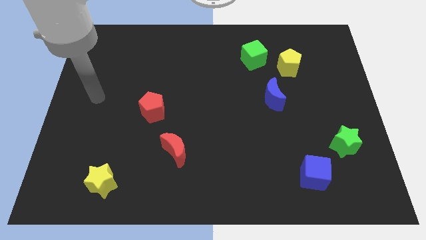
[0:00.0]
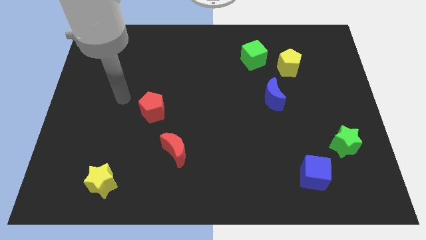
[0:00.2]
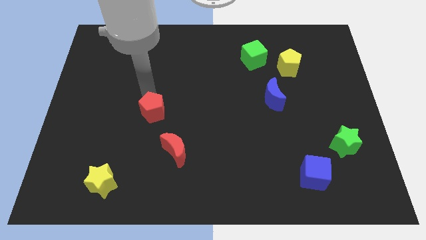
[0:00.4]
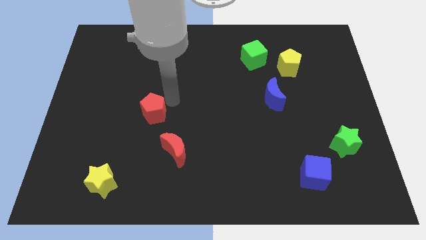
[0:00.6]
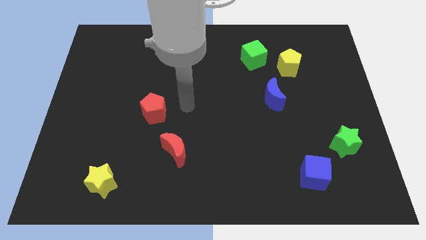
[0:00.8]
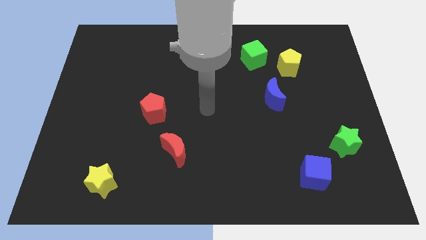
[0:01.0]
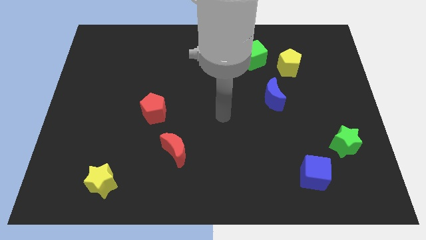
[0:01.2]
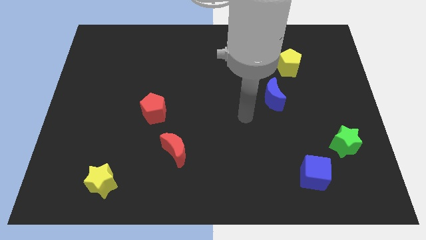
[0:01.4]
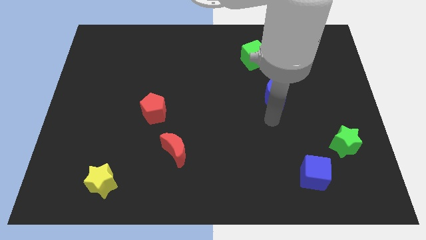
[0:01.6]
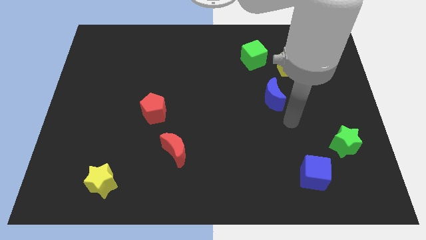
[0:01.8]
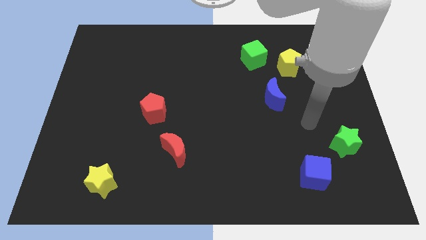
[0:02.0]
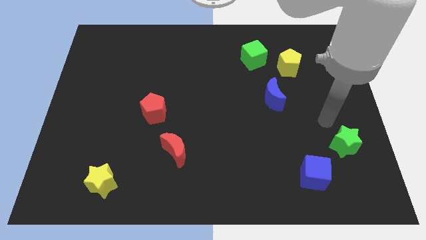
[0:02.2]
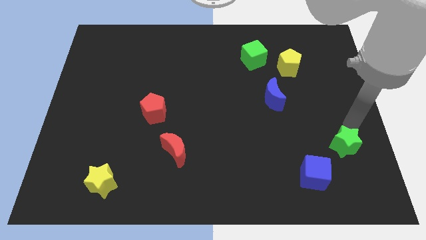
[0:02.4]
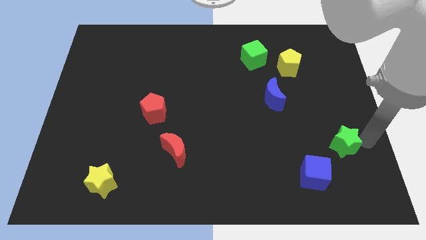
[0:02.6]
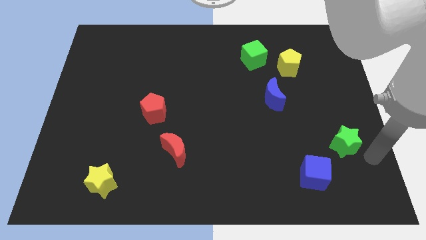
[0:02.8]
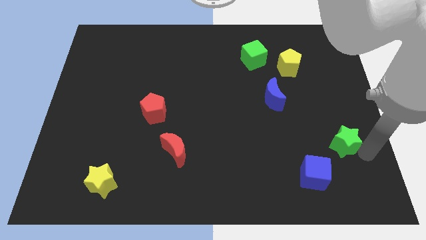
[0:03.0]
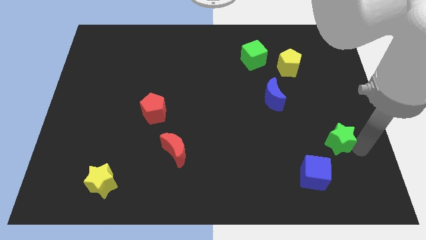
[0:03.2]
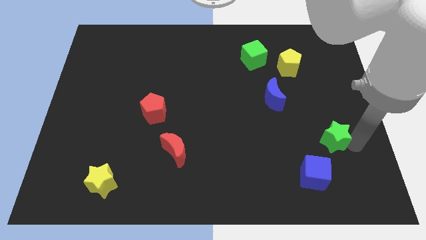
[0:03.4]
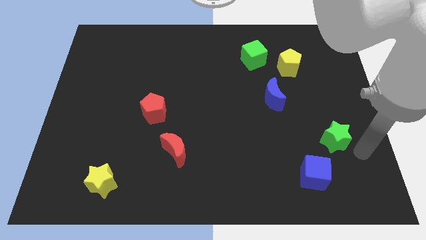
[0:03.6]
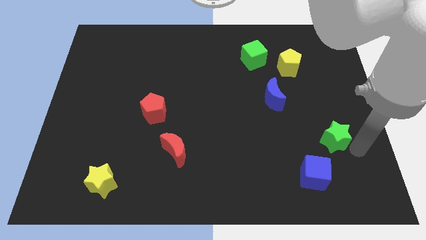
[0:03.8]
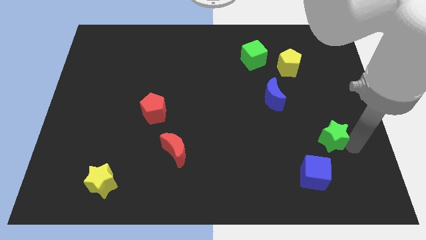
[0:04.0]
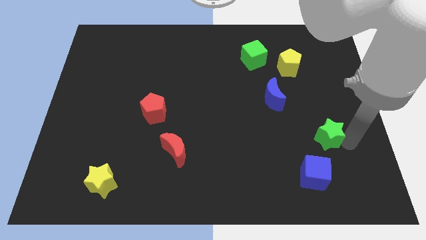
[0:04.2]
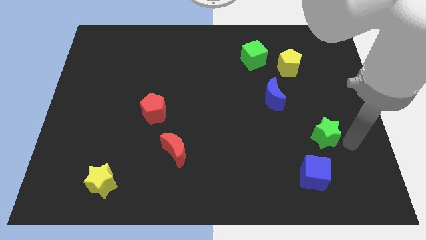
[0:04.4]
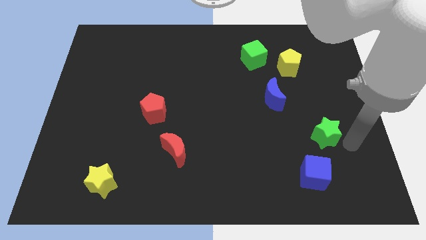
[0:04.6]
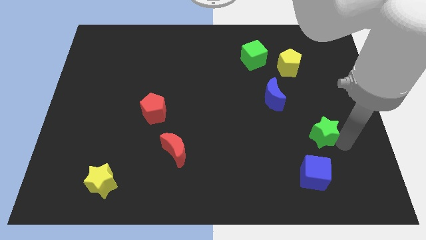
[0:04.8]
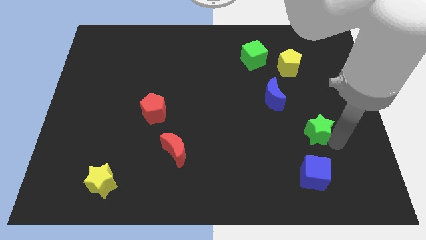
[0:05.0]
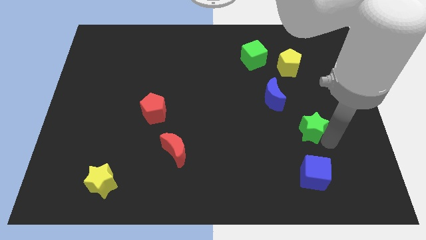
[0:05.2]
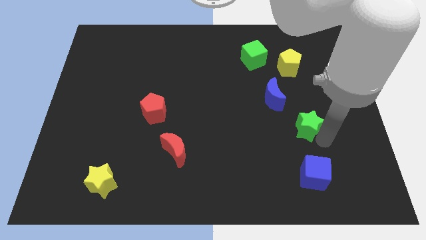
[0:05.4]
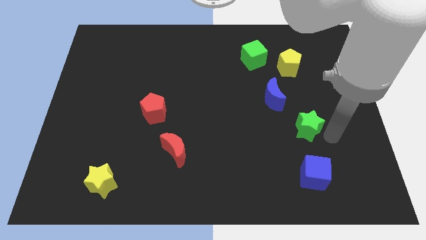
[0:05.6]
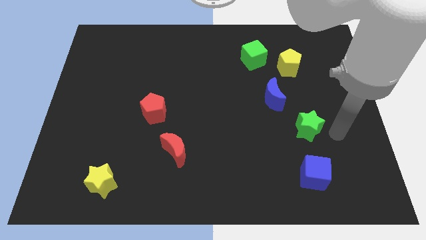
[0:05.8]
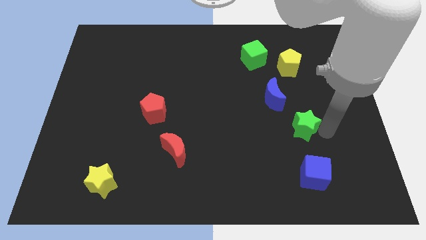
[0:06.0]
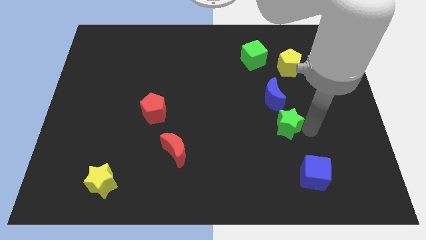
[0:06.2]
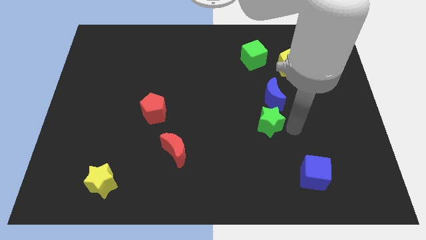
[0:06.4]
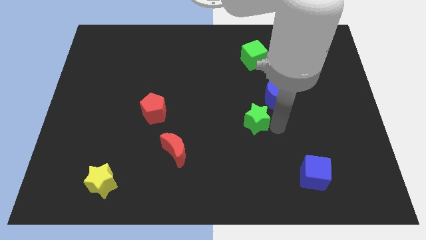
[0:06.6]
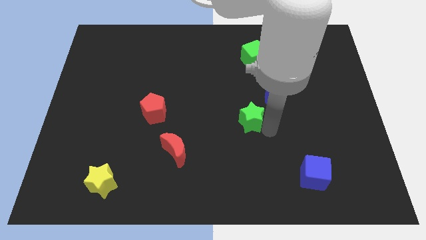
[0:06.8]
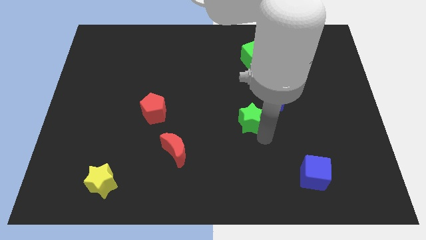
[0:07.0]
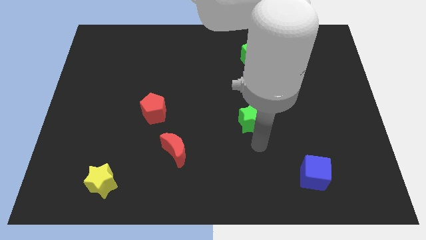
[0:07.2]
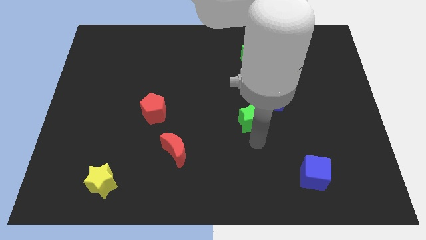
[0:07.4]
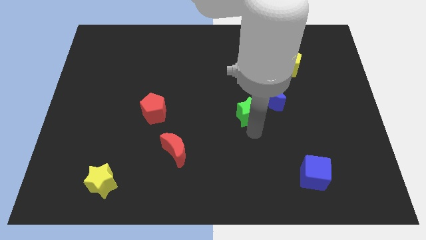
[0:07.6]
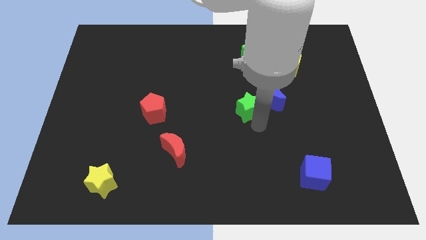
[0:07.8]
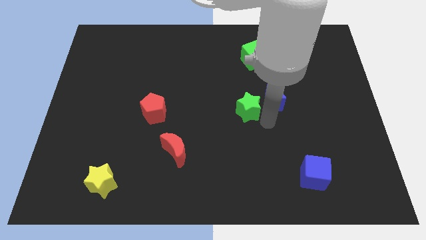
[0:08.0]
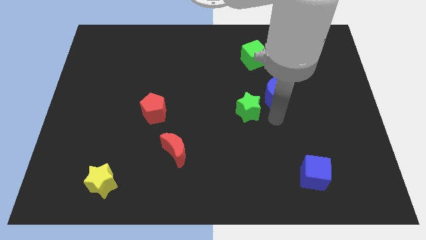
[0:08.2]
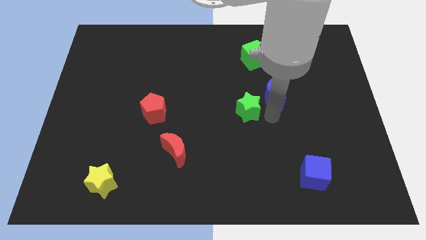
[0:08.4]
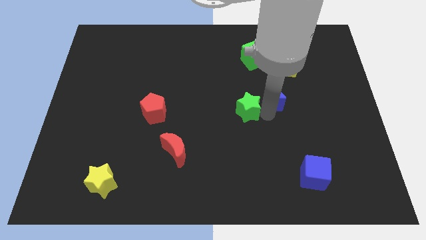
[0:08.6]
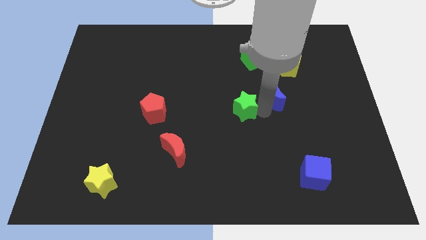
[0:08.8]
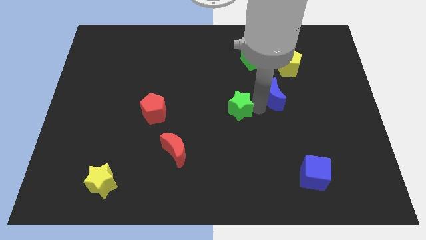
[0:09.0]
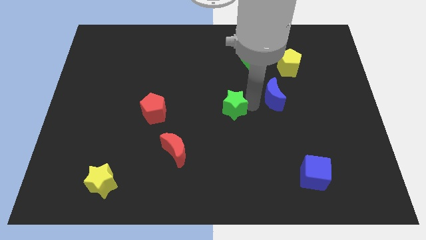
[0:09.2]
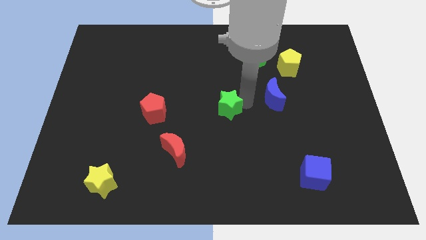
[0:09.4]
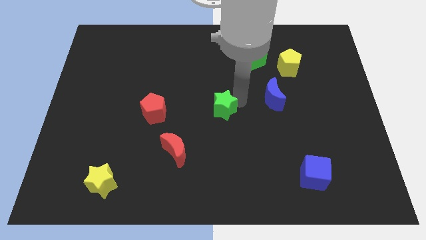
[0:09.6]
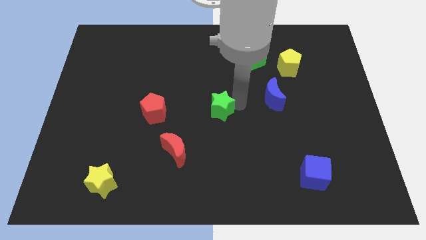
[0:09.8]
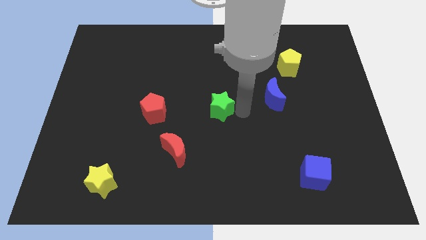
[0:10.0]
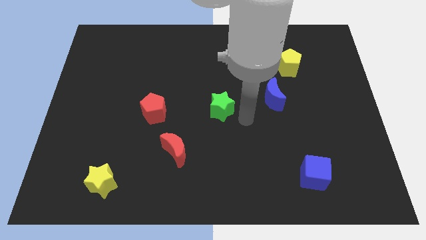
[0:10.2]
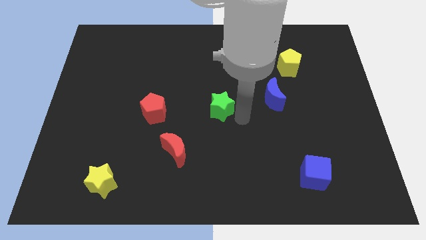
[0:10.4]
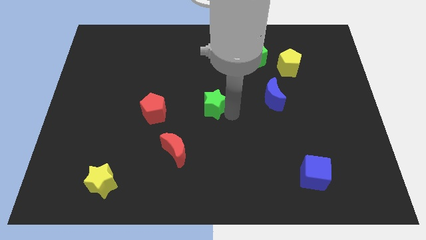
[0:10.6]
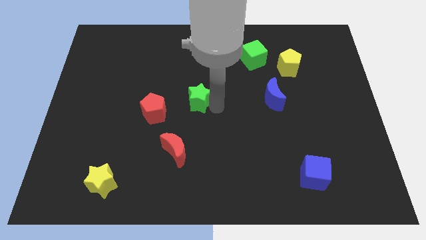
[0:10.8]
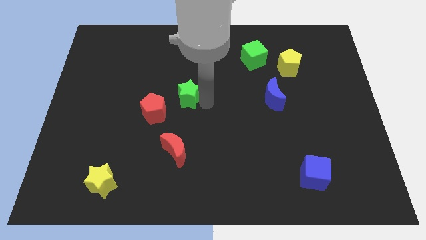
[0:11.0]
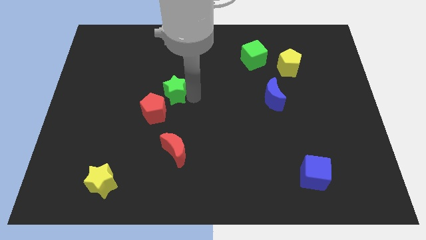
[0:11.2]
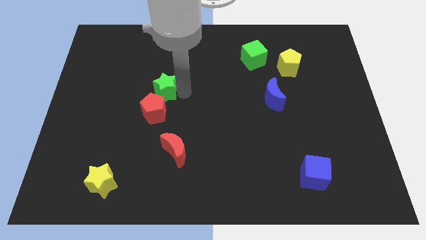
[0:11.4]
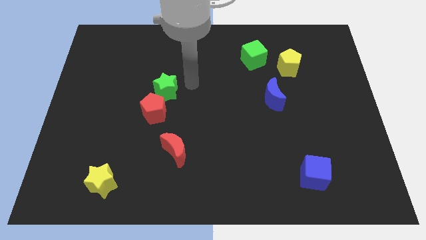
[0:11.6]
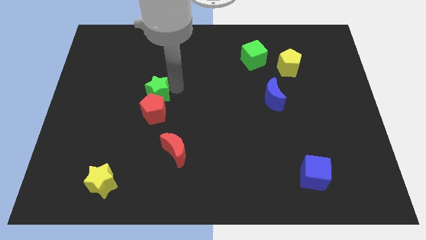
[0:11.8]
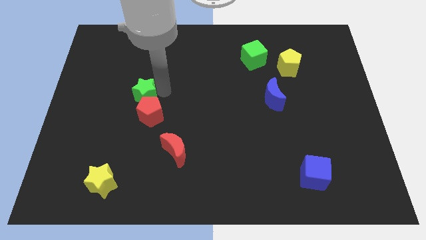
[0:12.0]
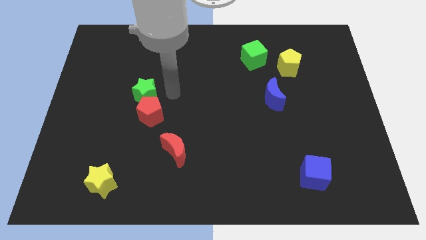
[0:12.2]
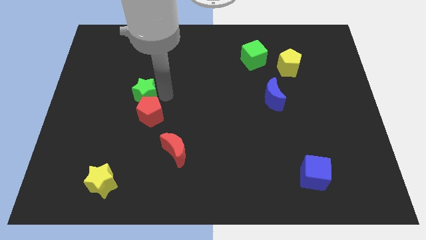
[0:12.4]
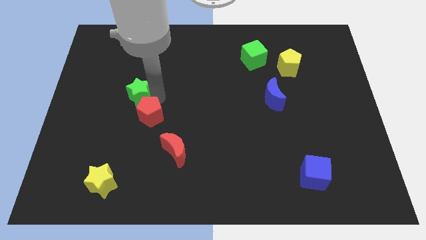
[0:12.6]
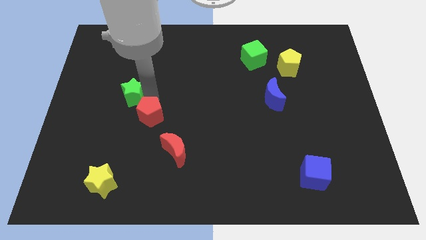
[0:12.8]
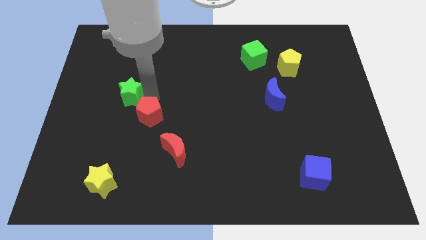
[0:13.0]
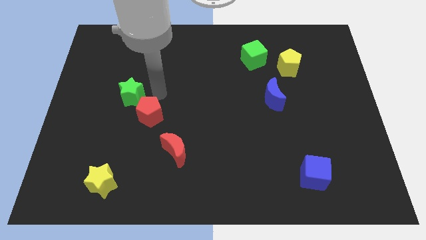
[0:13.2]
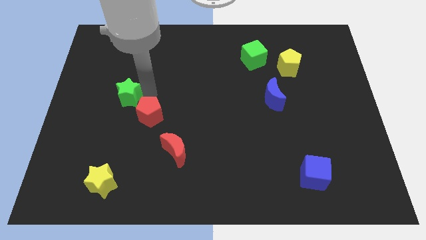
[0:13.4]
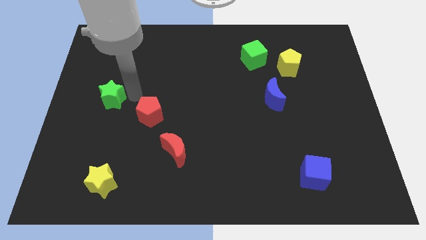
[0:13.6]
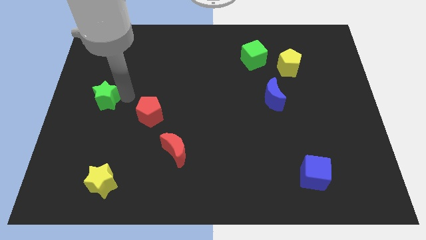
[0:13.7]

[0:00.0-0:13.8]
push the green star to the left side
